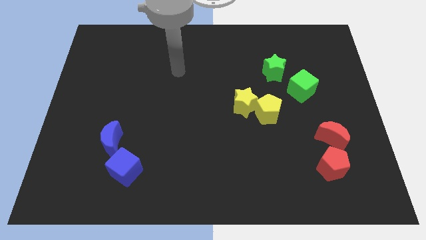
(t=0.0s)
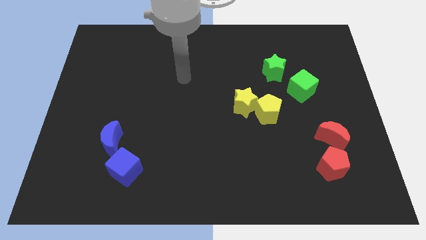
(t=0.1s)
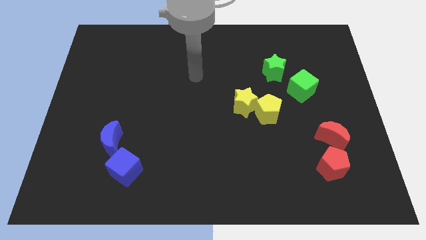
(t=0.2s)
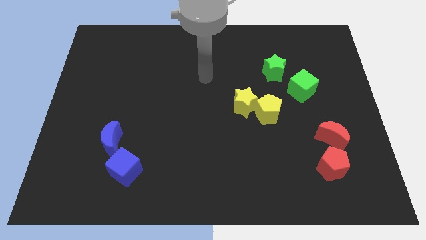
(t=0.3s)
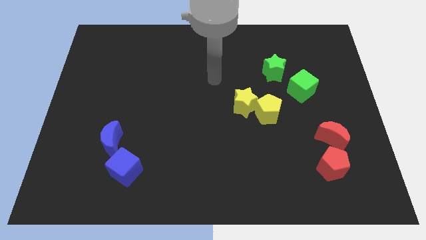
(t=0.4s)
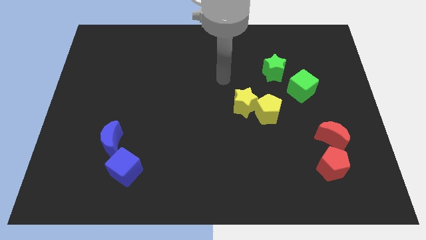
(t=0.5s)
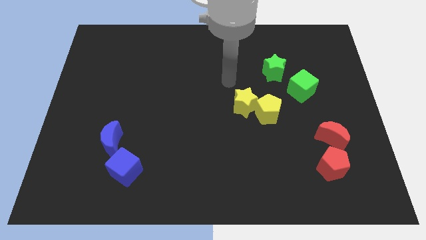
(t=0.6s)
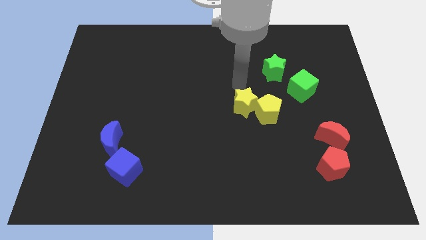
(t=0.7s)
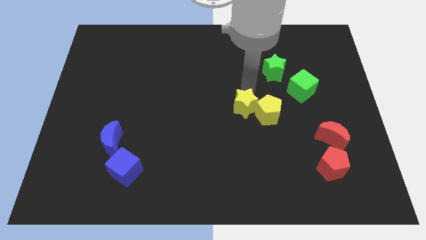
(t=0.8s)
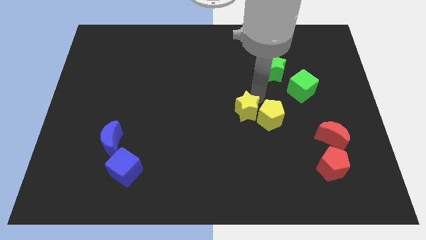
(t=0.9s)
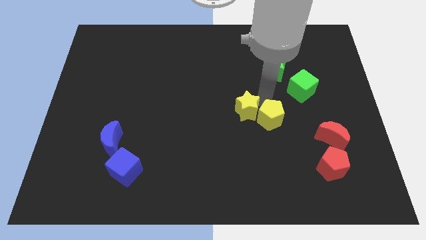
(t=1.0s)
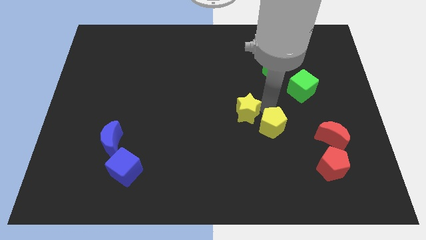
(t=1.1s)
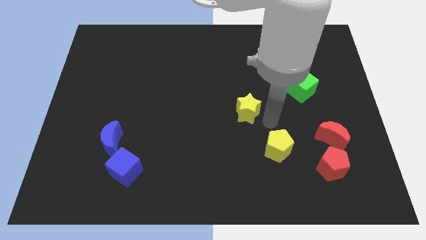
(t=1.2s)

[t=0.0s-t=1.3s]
separate the yellow star from the yellow pentagon

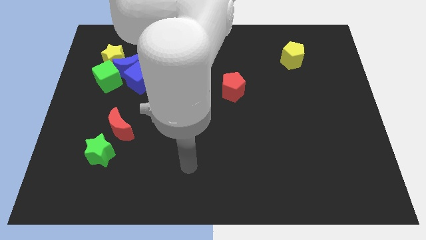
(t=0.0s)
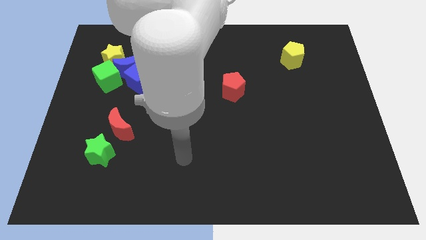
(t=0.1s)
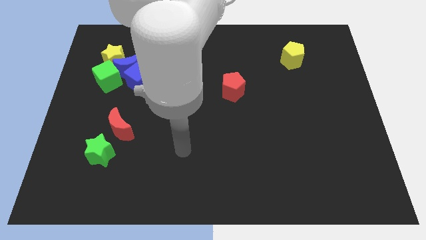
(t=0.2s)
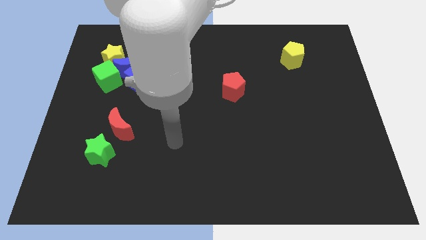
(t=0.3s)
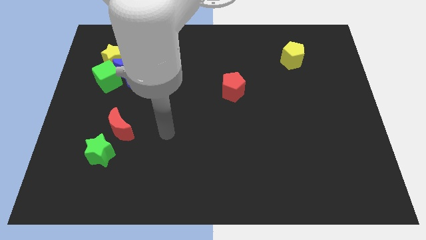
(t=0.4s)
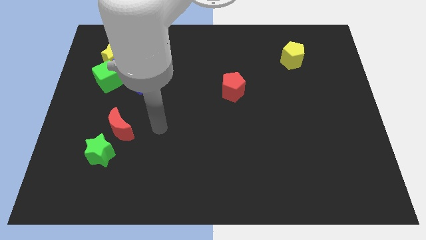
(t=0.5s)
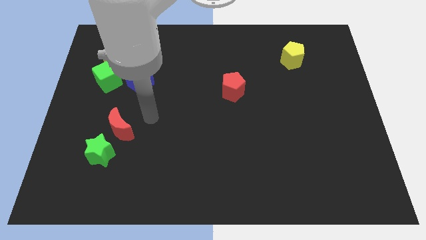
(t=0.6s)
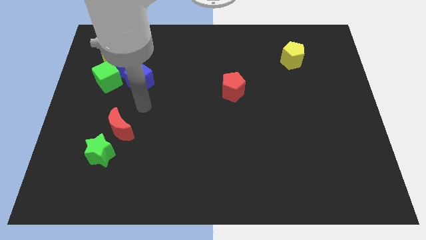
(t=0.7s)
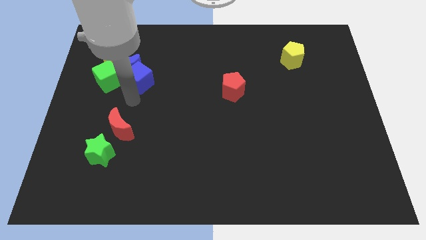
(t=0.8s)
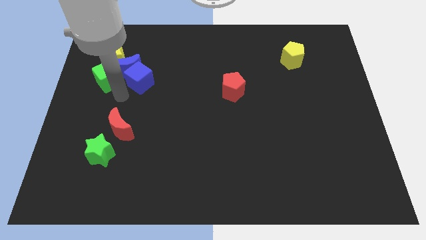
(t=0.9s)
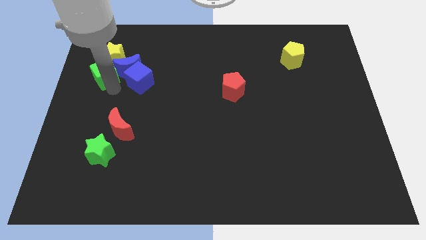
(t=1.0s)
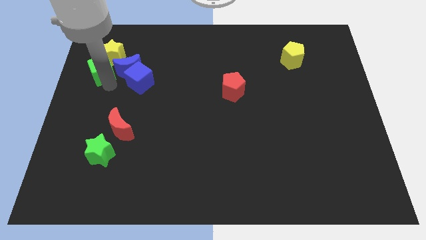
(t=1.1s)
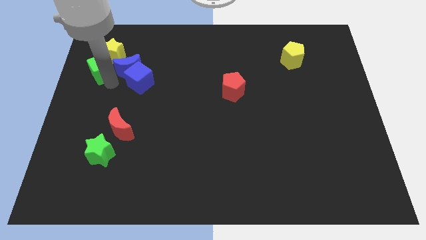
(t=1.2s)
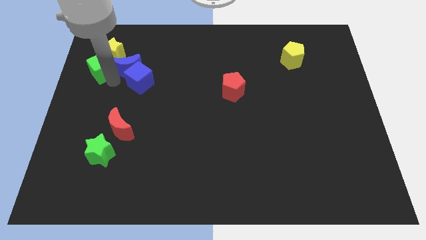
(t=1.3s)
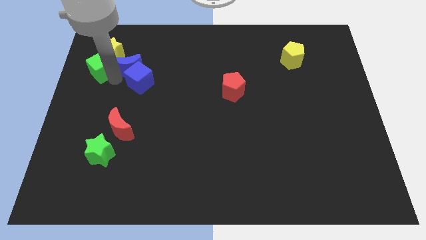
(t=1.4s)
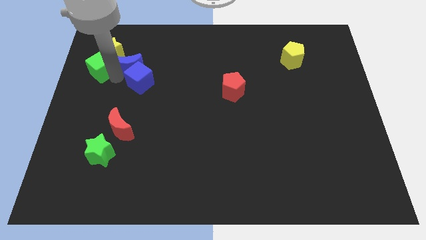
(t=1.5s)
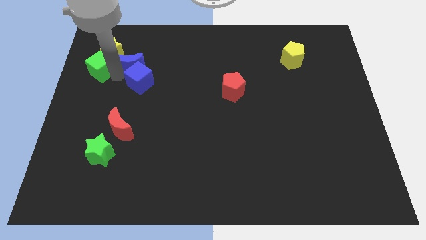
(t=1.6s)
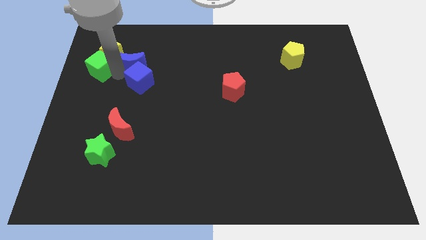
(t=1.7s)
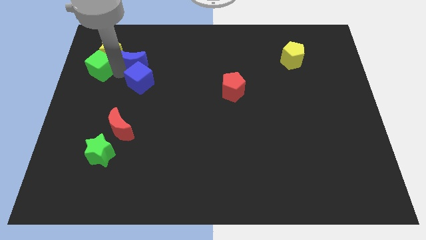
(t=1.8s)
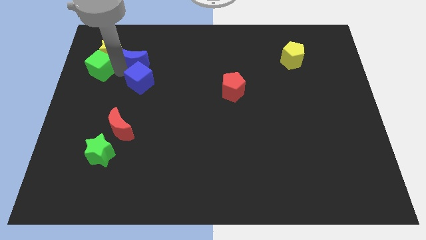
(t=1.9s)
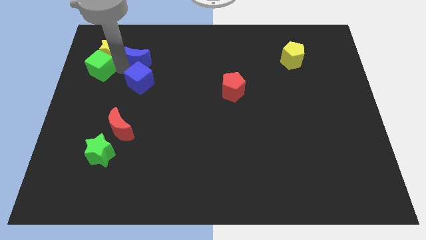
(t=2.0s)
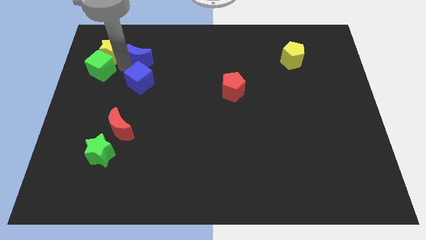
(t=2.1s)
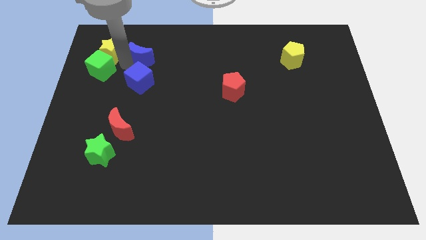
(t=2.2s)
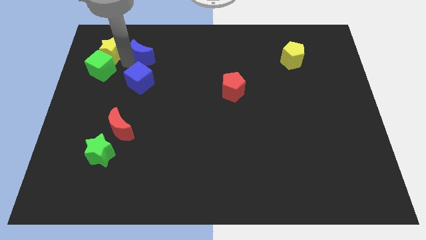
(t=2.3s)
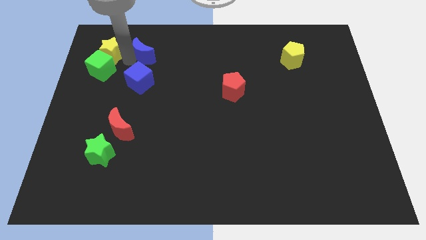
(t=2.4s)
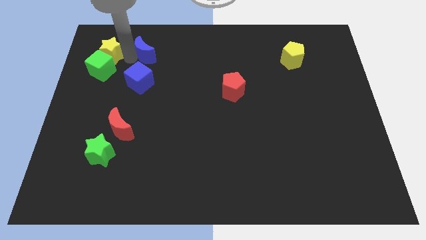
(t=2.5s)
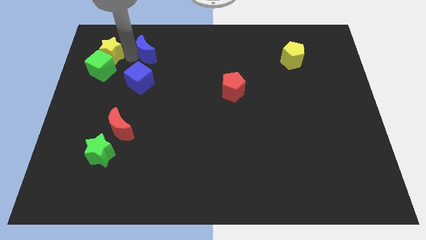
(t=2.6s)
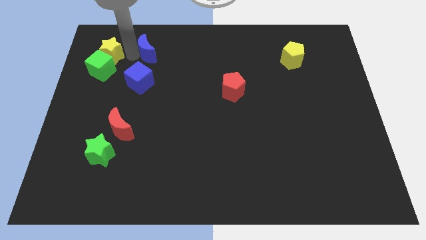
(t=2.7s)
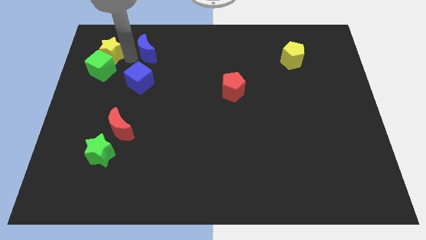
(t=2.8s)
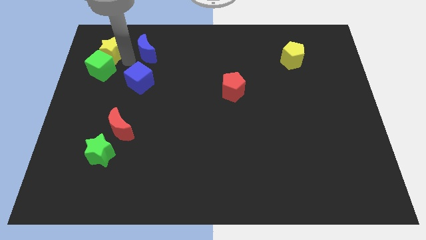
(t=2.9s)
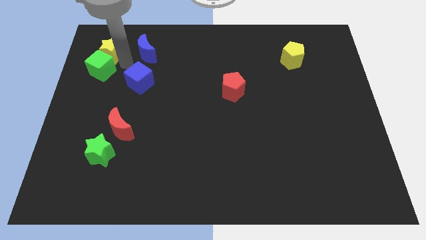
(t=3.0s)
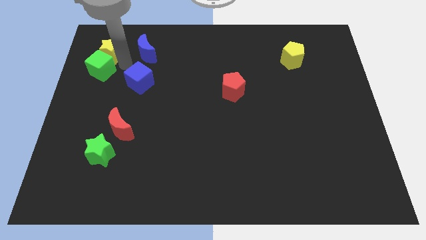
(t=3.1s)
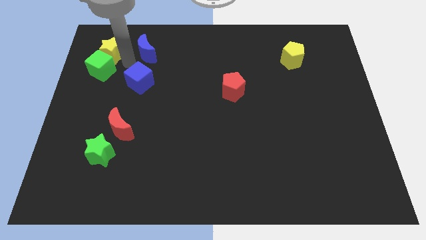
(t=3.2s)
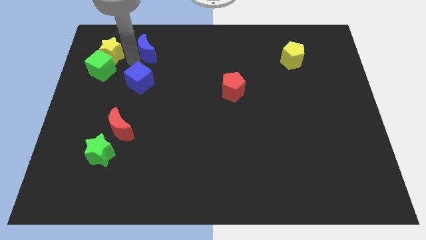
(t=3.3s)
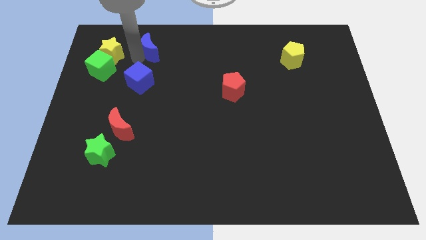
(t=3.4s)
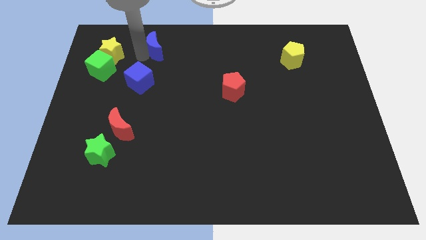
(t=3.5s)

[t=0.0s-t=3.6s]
move the blue moon away from the blue cube, yellow star, and green cube

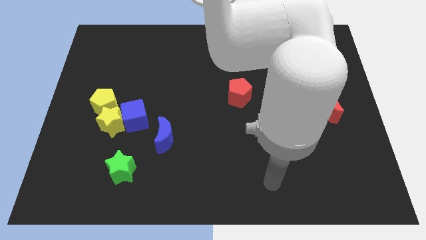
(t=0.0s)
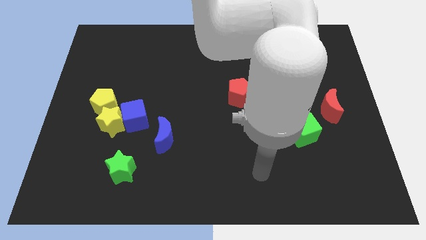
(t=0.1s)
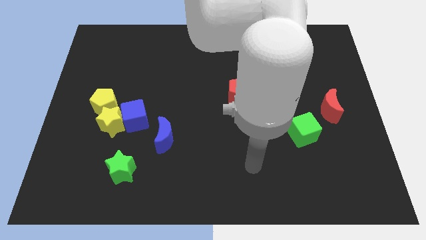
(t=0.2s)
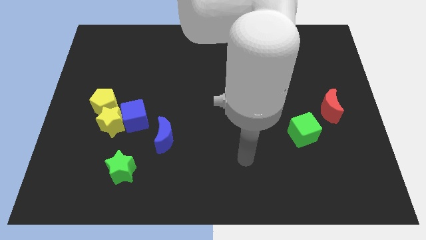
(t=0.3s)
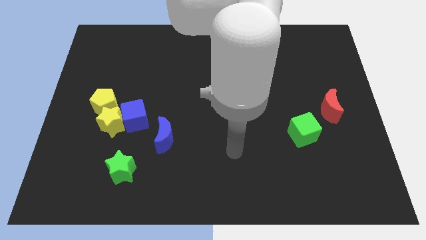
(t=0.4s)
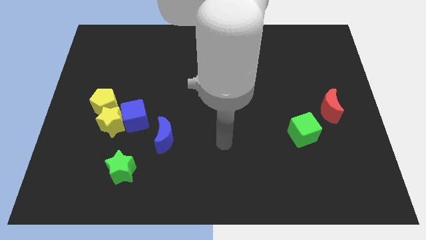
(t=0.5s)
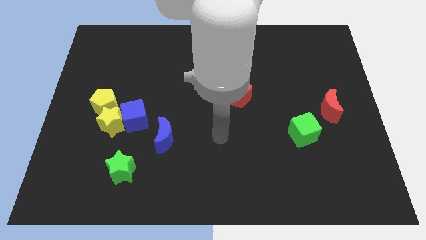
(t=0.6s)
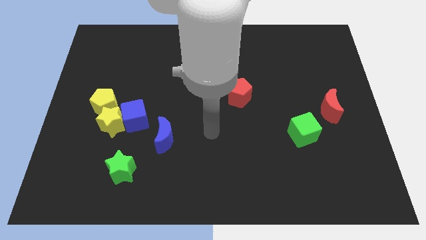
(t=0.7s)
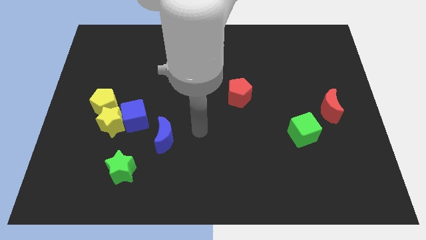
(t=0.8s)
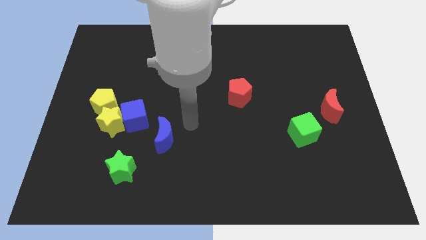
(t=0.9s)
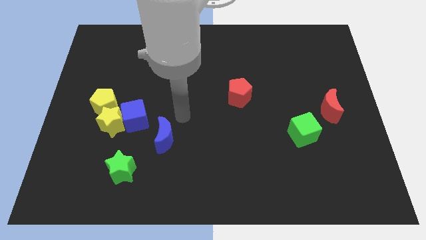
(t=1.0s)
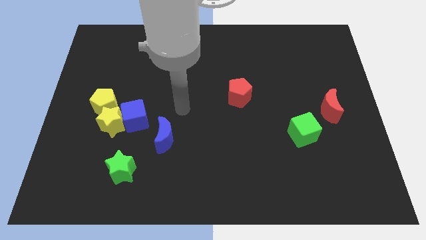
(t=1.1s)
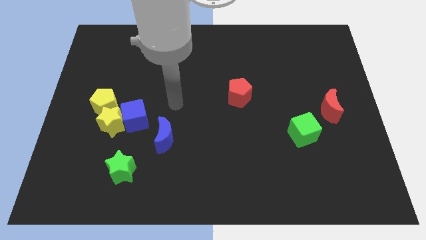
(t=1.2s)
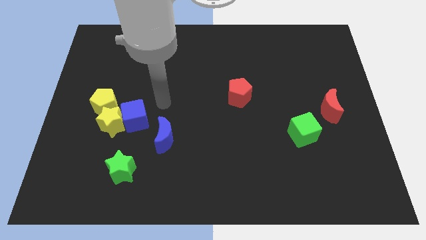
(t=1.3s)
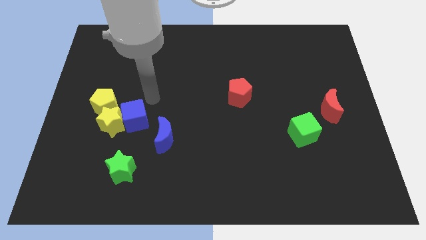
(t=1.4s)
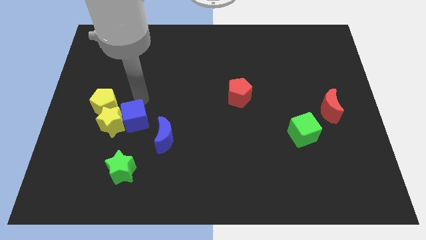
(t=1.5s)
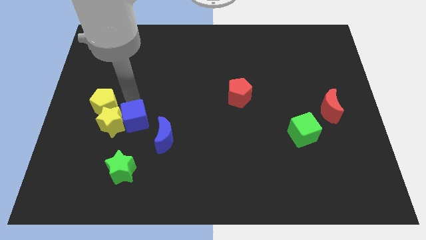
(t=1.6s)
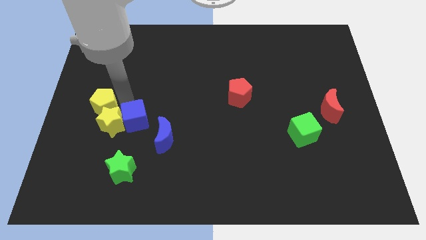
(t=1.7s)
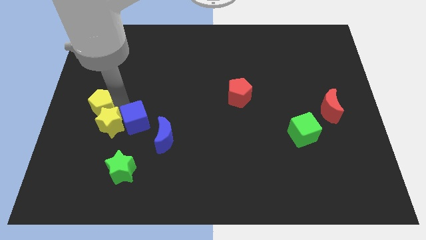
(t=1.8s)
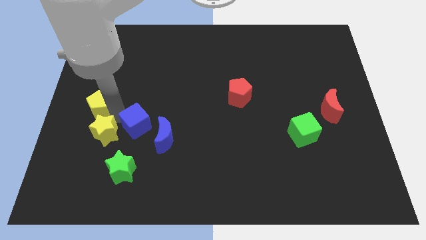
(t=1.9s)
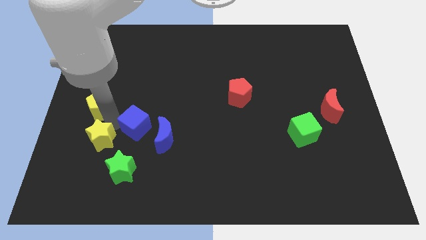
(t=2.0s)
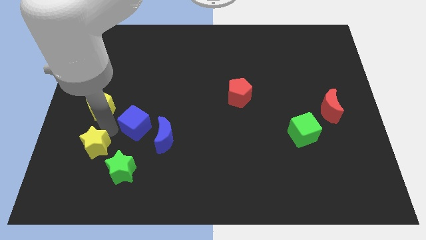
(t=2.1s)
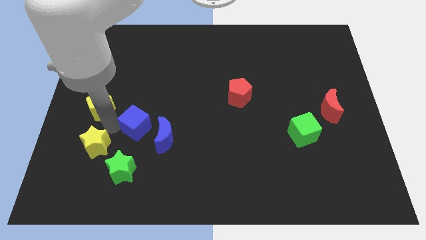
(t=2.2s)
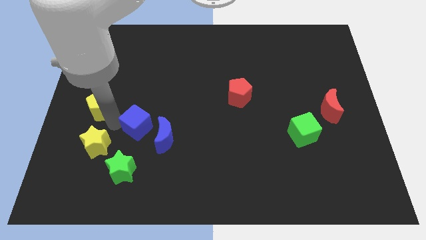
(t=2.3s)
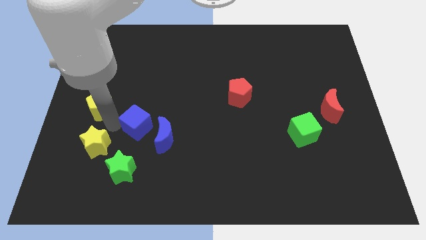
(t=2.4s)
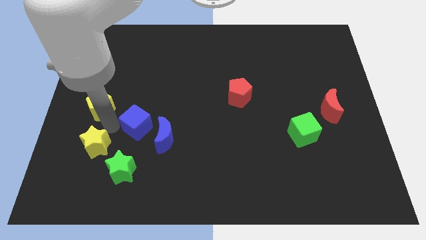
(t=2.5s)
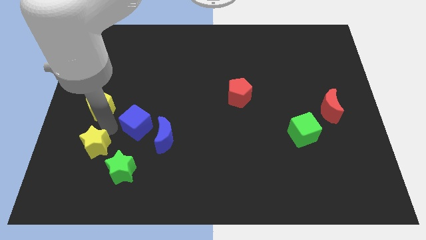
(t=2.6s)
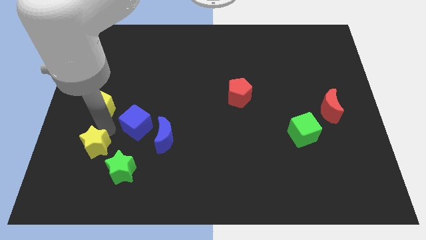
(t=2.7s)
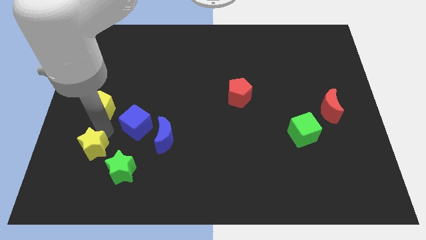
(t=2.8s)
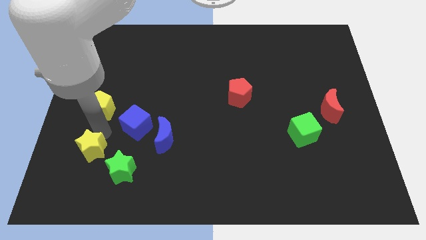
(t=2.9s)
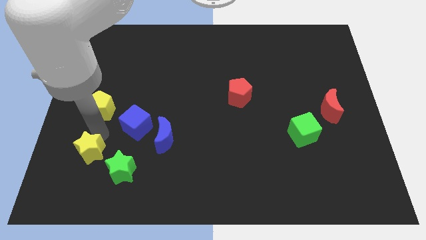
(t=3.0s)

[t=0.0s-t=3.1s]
pull the yellow star apart from the blue cube and yellow pentagon

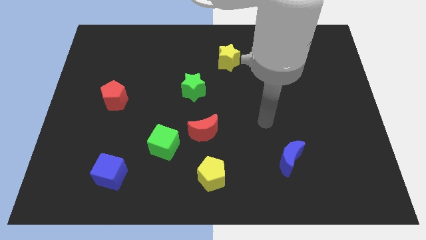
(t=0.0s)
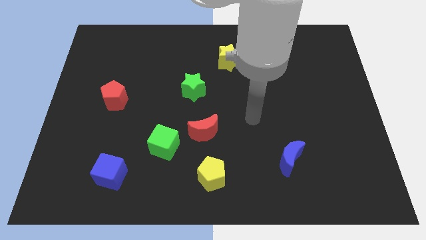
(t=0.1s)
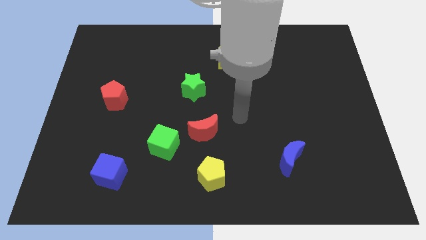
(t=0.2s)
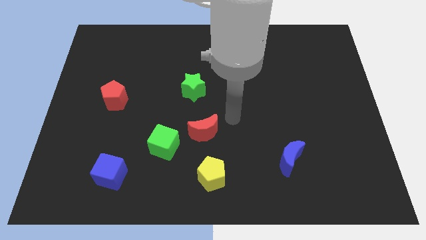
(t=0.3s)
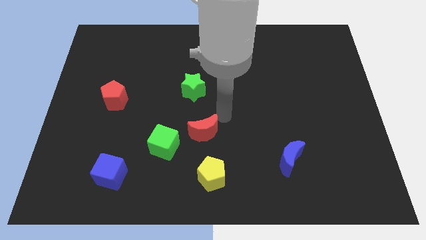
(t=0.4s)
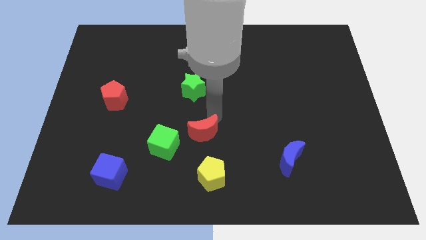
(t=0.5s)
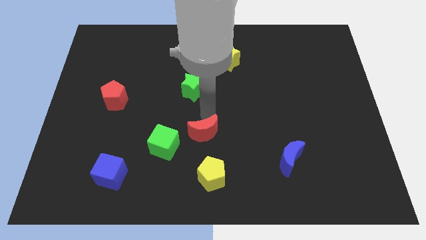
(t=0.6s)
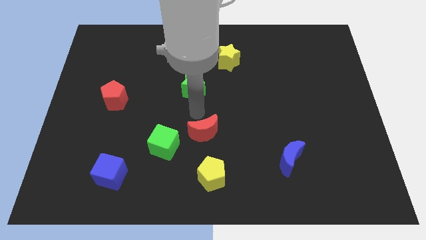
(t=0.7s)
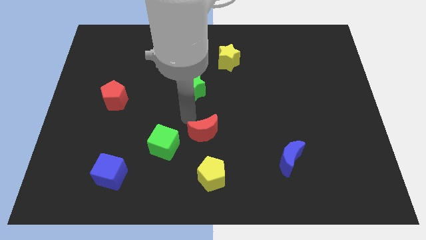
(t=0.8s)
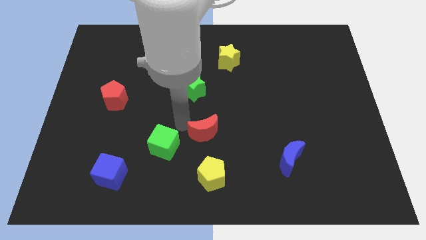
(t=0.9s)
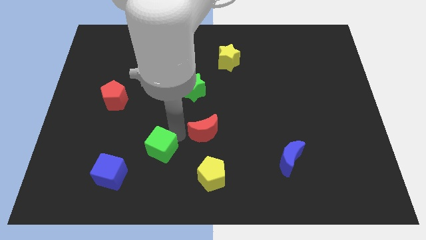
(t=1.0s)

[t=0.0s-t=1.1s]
separate the red moon from the green cube

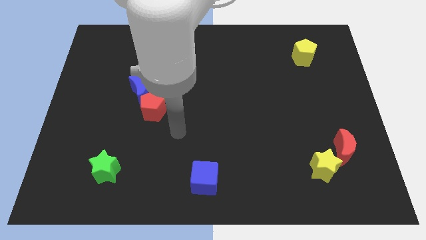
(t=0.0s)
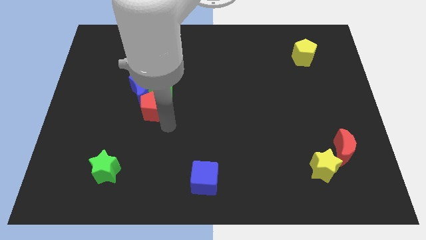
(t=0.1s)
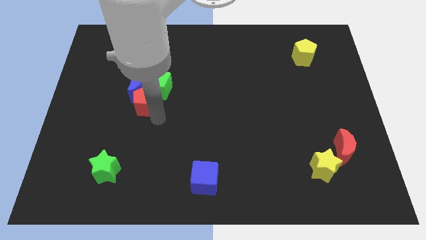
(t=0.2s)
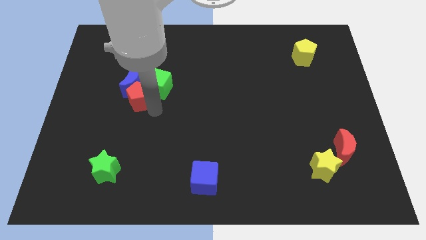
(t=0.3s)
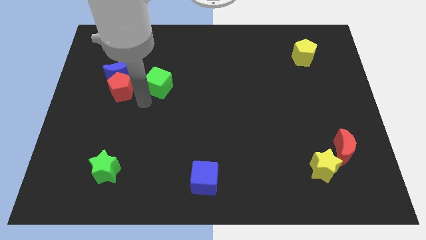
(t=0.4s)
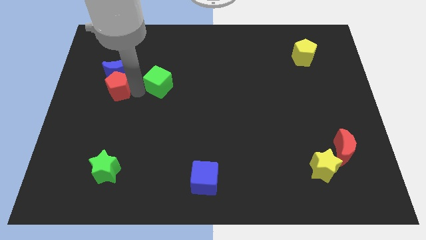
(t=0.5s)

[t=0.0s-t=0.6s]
separate the green cube from the blue moon and red pentagon
